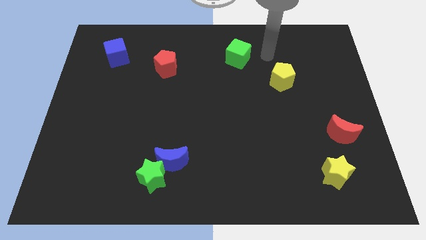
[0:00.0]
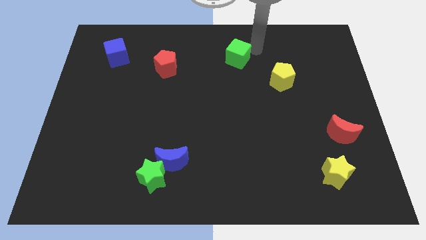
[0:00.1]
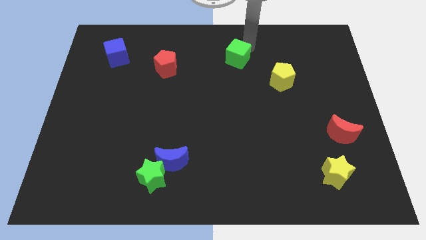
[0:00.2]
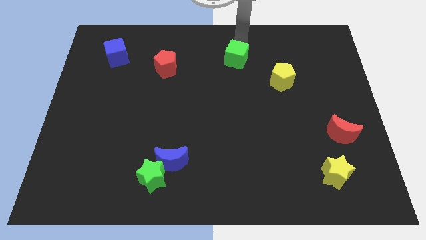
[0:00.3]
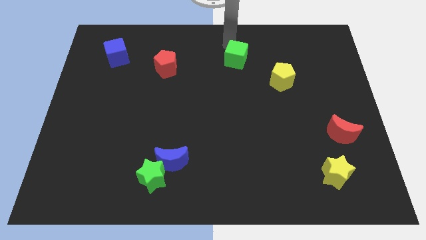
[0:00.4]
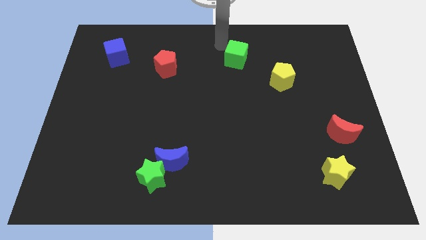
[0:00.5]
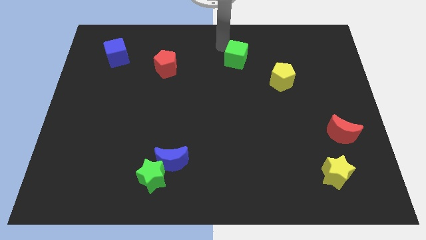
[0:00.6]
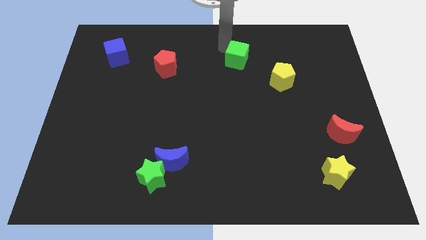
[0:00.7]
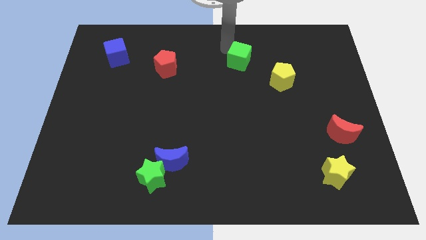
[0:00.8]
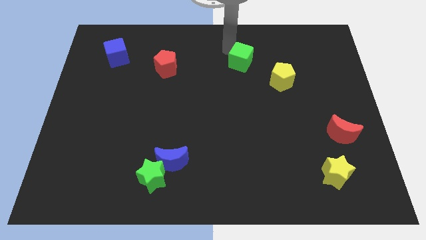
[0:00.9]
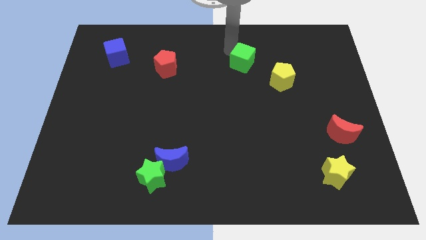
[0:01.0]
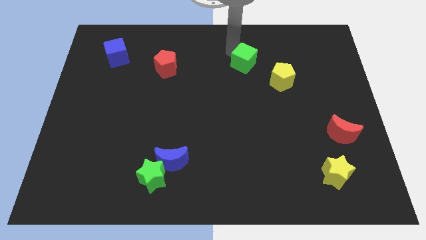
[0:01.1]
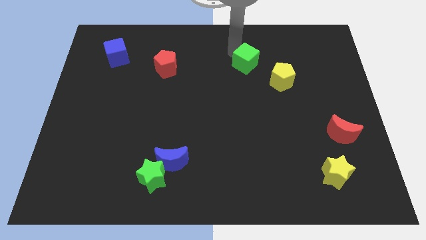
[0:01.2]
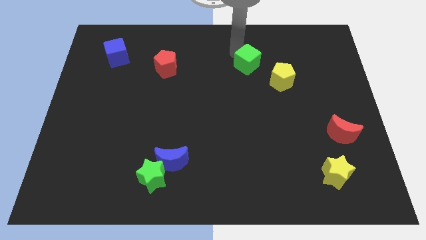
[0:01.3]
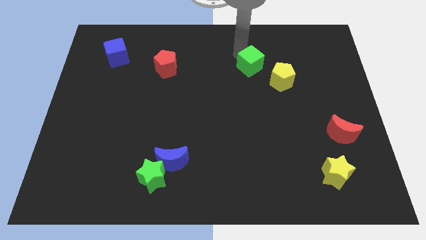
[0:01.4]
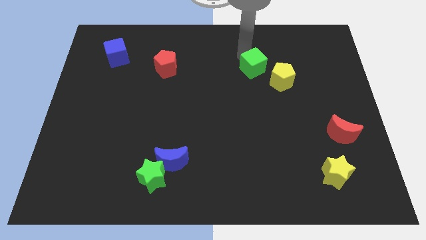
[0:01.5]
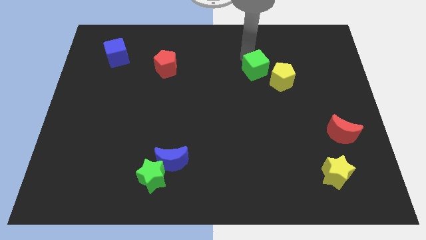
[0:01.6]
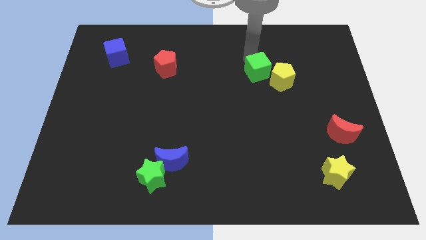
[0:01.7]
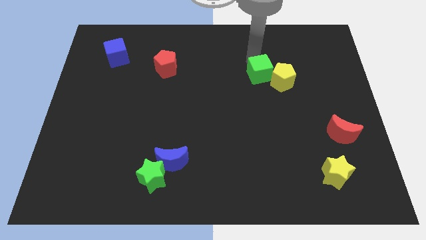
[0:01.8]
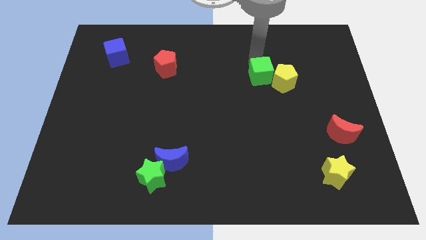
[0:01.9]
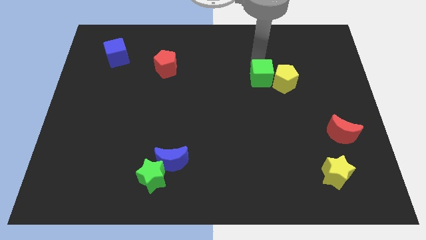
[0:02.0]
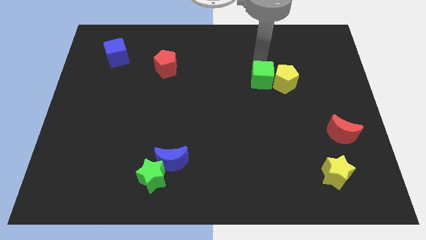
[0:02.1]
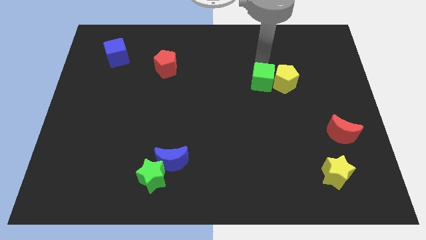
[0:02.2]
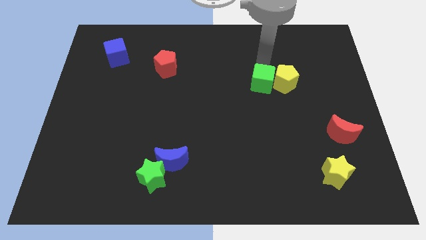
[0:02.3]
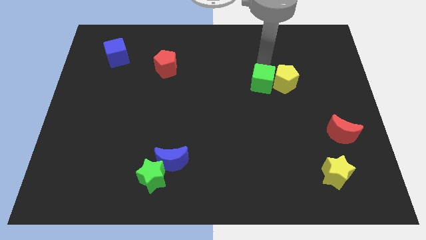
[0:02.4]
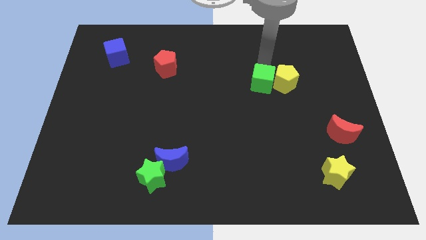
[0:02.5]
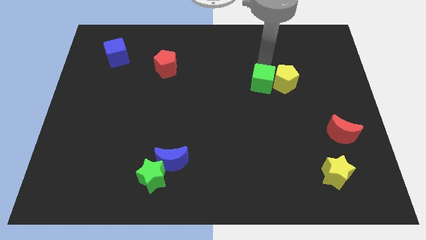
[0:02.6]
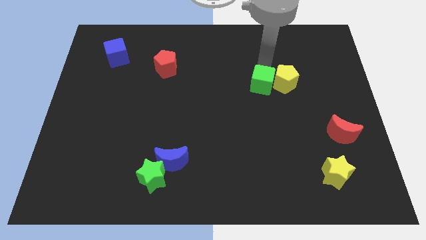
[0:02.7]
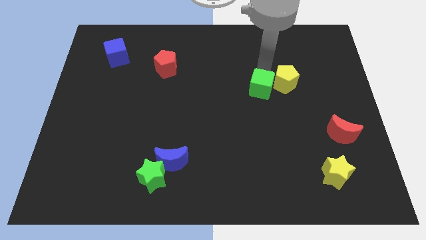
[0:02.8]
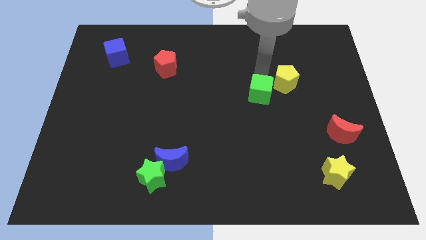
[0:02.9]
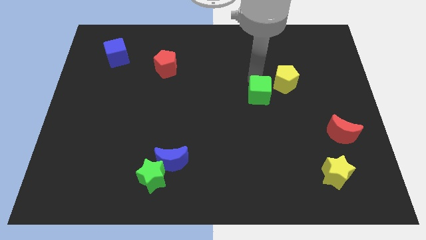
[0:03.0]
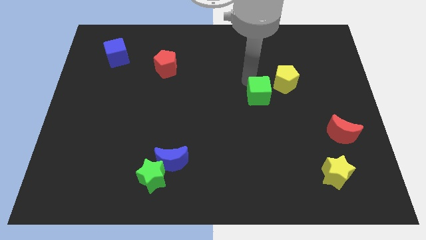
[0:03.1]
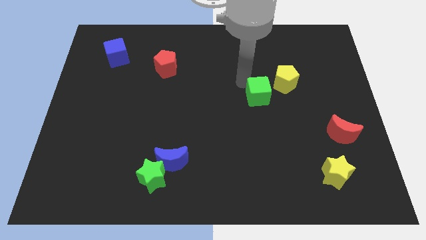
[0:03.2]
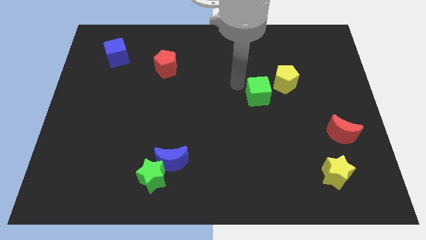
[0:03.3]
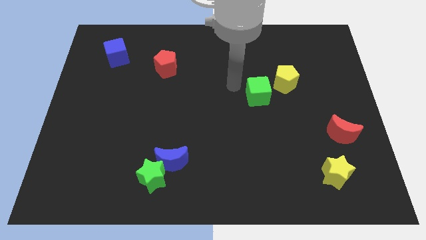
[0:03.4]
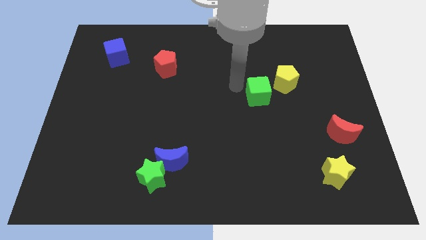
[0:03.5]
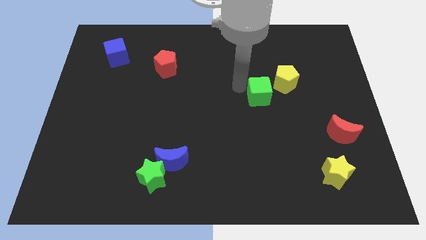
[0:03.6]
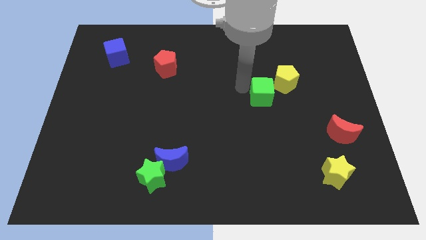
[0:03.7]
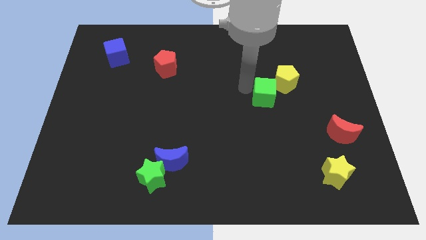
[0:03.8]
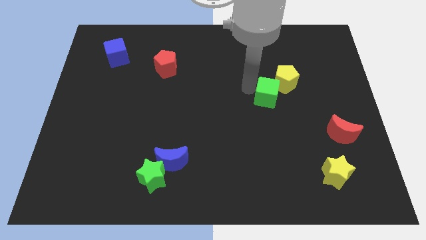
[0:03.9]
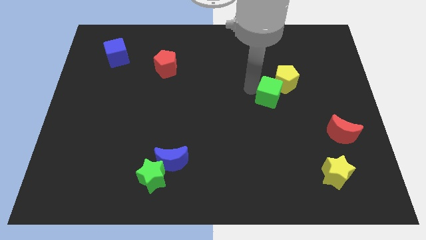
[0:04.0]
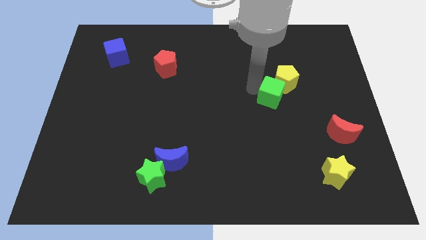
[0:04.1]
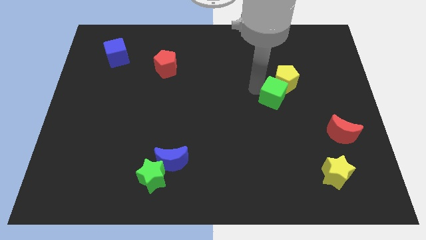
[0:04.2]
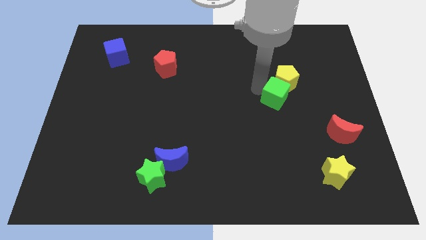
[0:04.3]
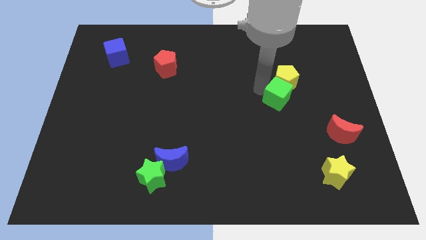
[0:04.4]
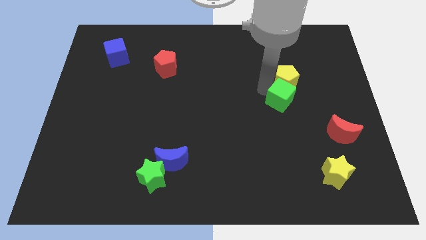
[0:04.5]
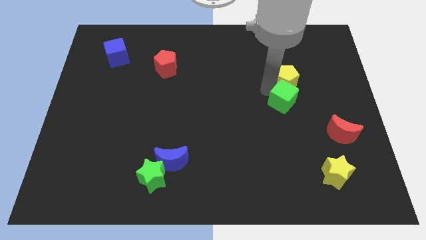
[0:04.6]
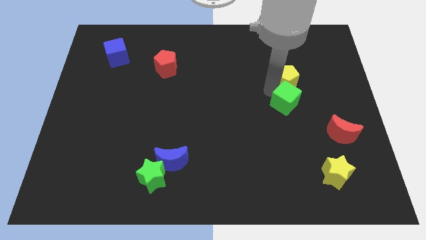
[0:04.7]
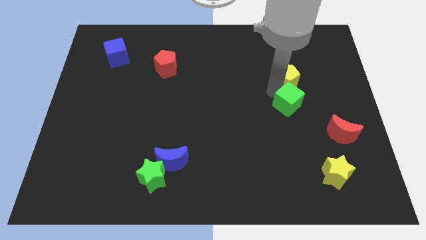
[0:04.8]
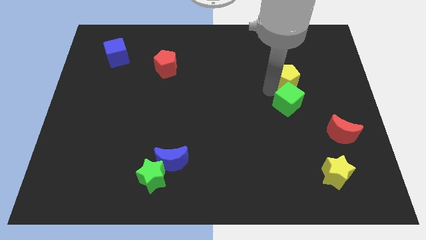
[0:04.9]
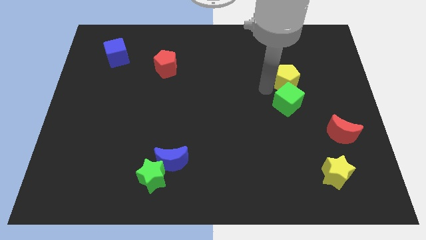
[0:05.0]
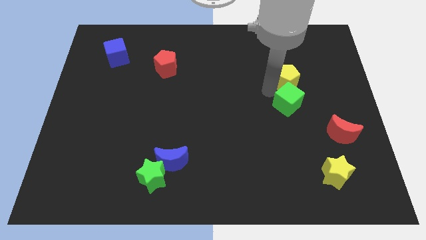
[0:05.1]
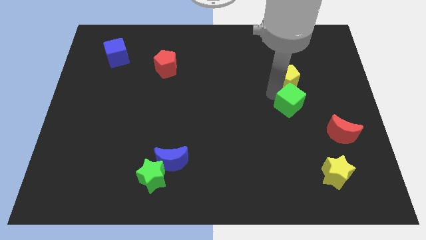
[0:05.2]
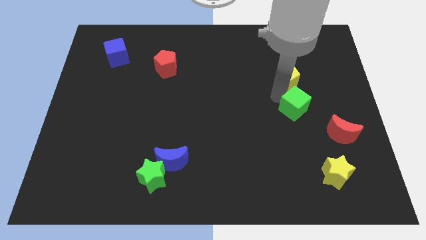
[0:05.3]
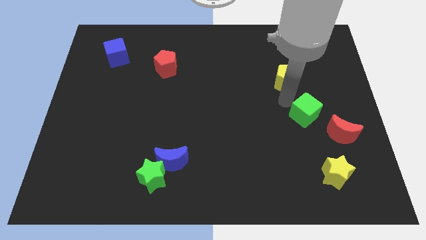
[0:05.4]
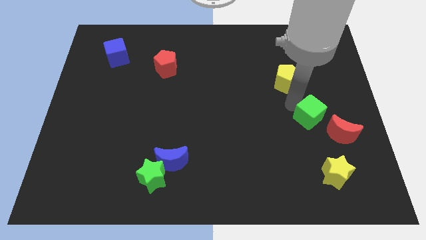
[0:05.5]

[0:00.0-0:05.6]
slide the green cube to the top of the yellow star

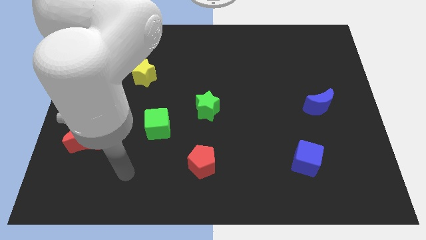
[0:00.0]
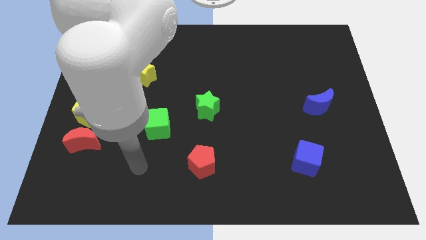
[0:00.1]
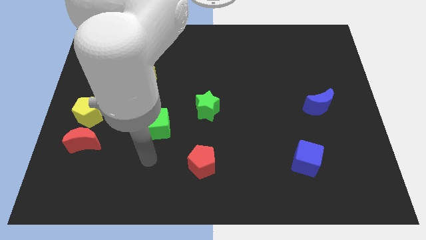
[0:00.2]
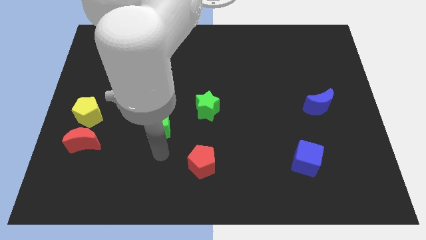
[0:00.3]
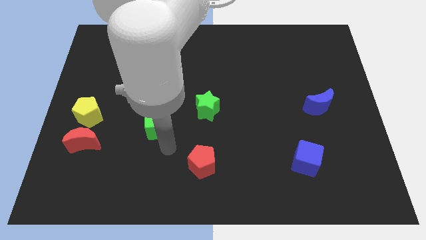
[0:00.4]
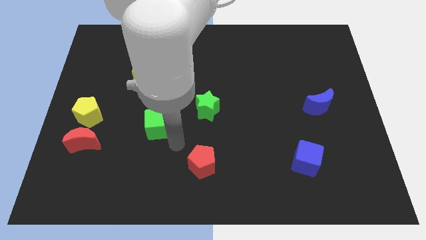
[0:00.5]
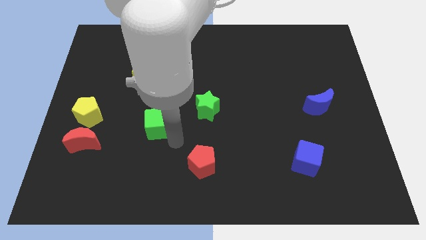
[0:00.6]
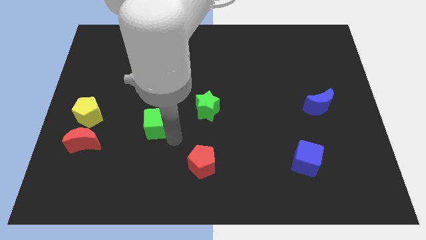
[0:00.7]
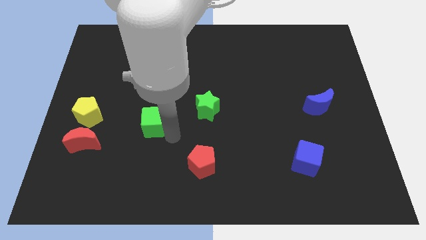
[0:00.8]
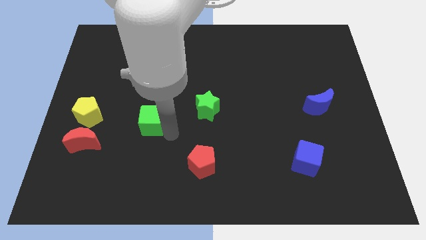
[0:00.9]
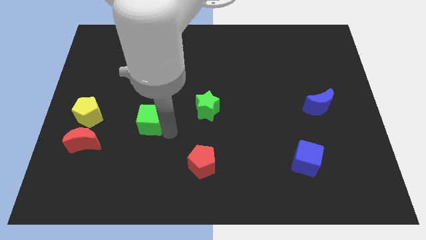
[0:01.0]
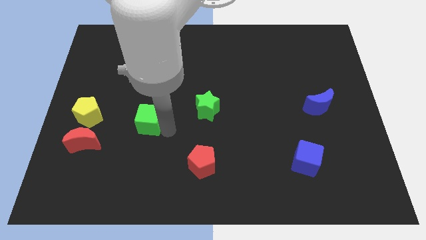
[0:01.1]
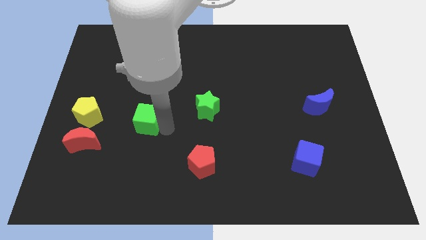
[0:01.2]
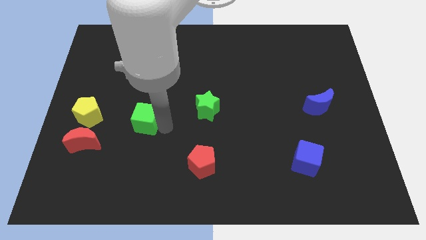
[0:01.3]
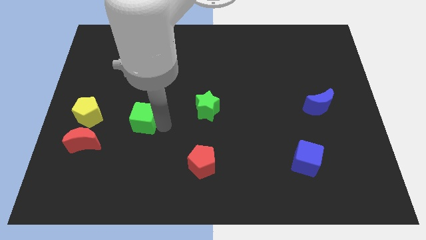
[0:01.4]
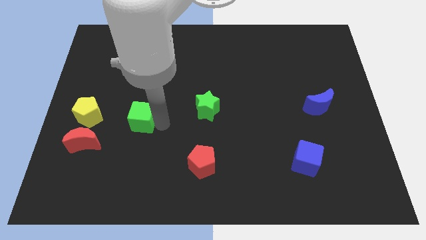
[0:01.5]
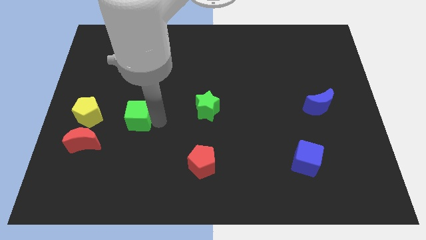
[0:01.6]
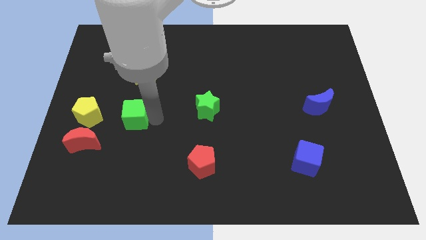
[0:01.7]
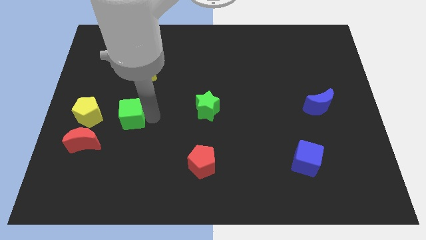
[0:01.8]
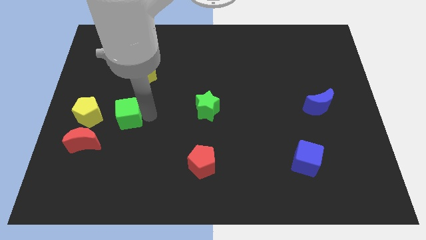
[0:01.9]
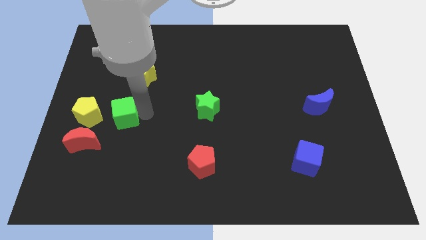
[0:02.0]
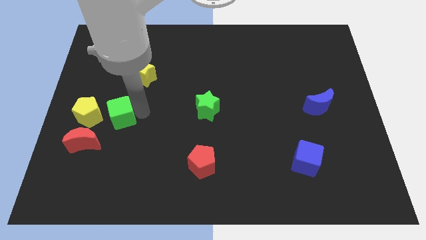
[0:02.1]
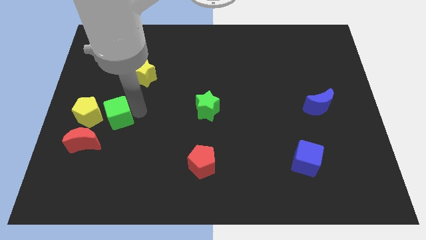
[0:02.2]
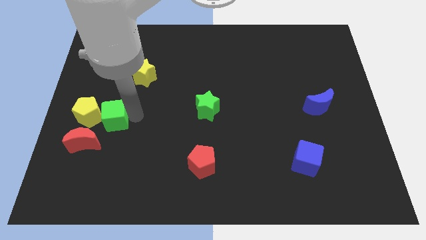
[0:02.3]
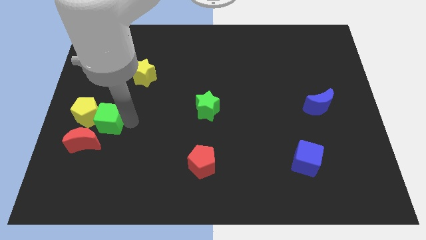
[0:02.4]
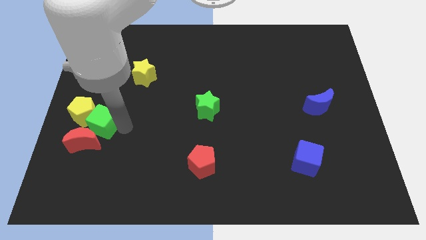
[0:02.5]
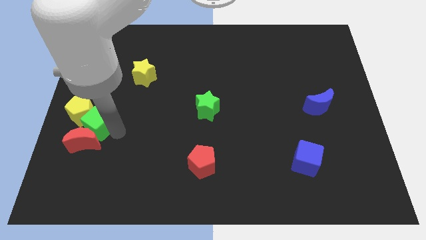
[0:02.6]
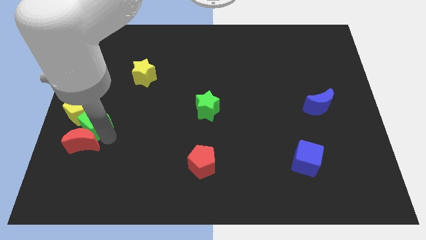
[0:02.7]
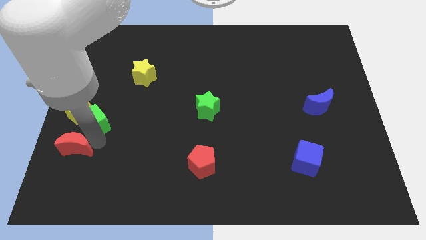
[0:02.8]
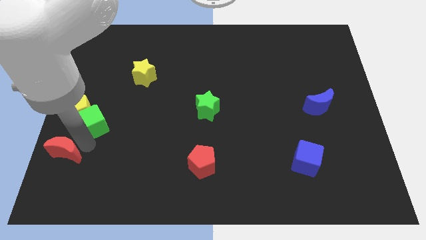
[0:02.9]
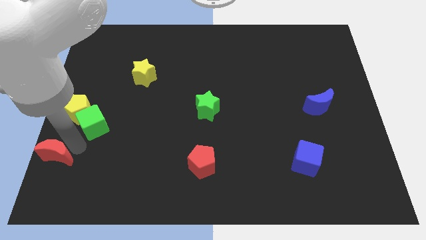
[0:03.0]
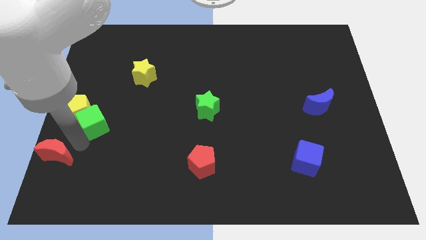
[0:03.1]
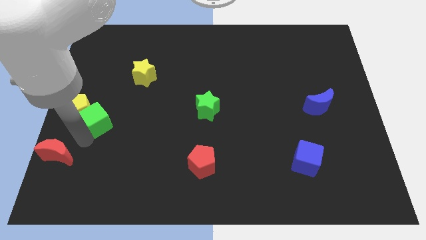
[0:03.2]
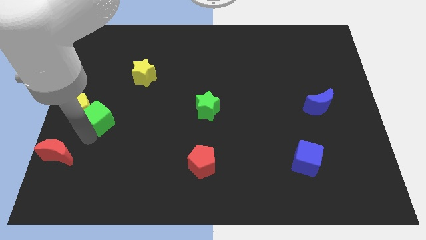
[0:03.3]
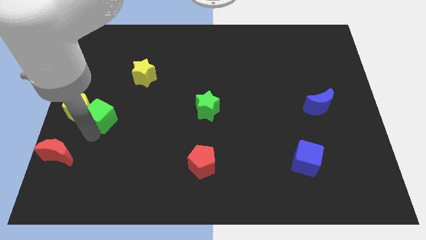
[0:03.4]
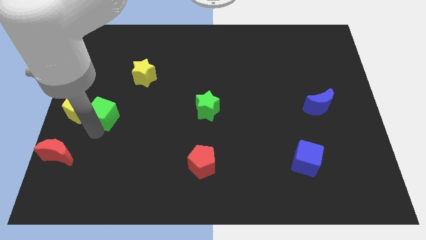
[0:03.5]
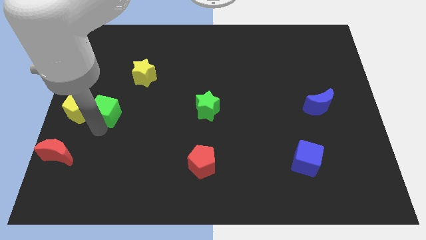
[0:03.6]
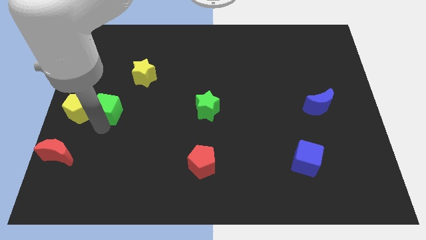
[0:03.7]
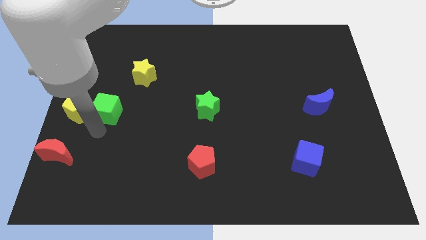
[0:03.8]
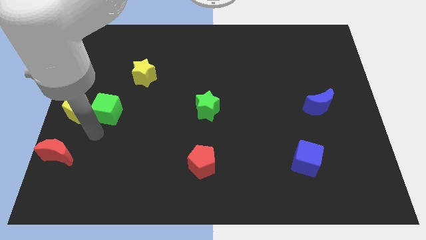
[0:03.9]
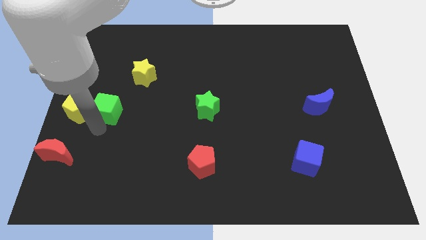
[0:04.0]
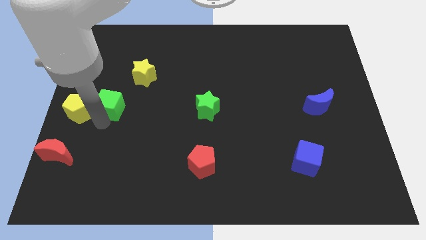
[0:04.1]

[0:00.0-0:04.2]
put the green cube to the bottom left of the yellow star
